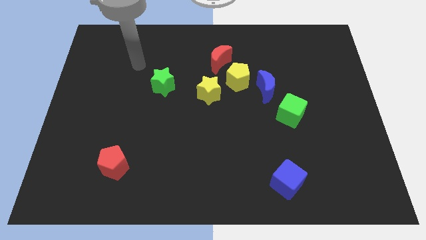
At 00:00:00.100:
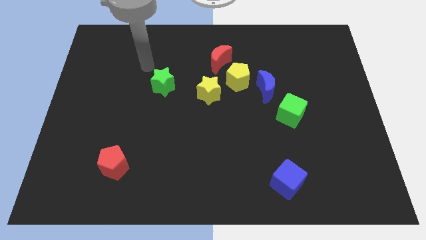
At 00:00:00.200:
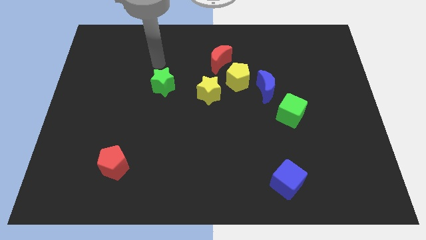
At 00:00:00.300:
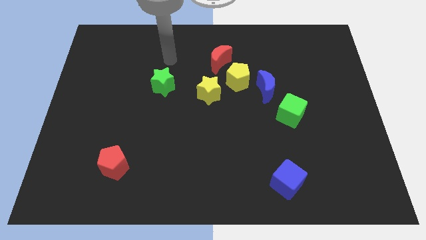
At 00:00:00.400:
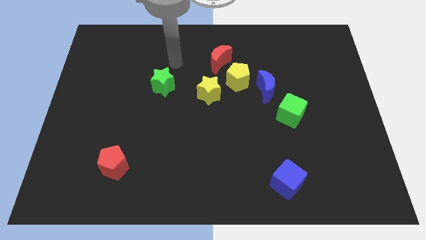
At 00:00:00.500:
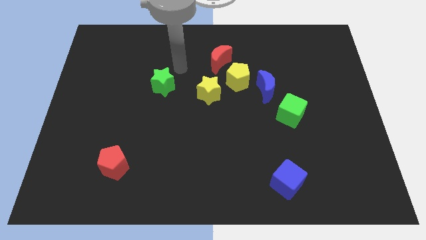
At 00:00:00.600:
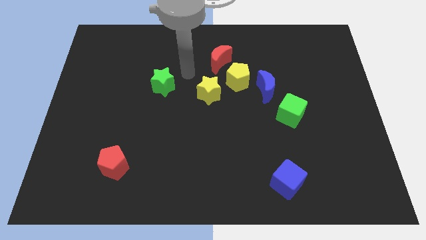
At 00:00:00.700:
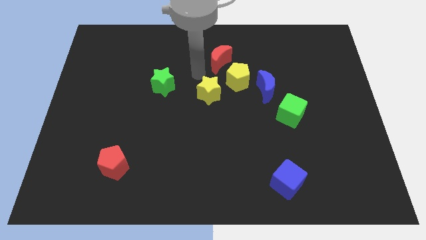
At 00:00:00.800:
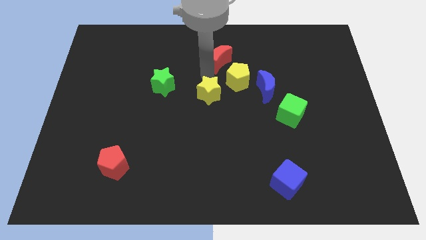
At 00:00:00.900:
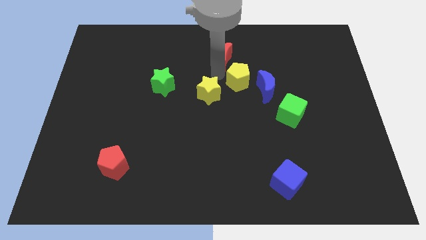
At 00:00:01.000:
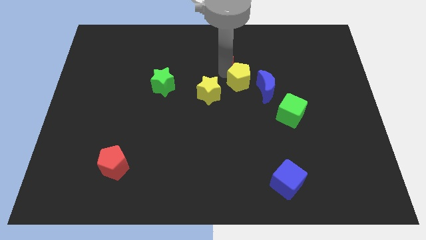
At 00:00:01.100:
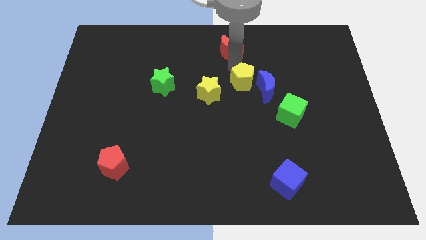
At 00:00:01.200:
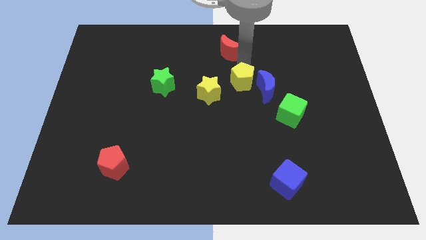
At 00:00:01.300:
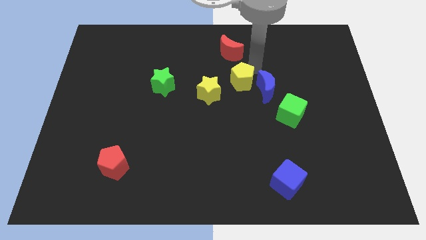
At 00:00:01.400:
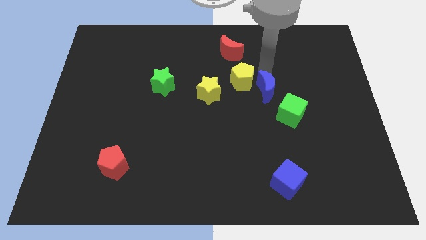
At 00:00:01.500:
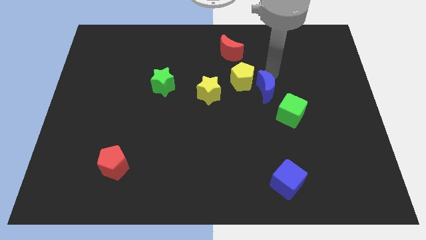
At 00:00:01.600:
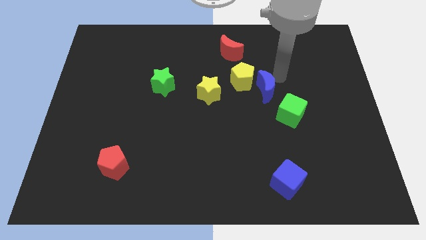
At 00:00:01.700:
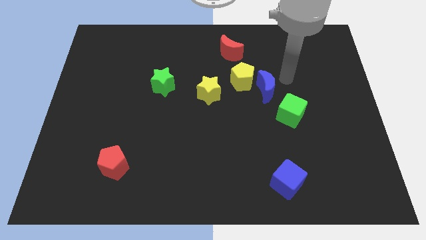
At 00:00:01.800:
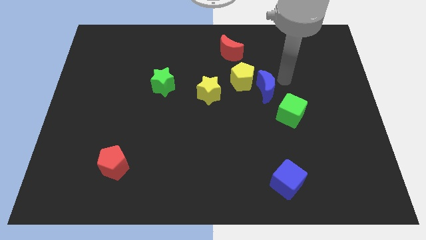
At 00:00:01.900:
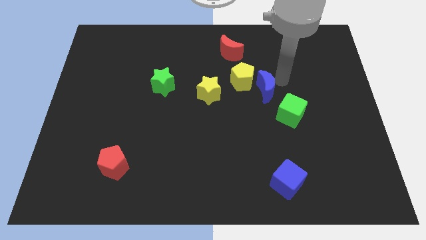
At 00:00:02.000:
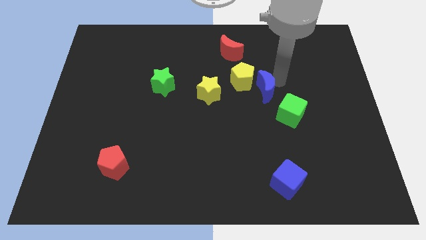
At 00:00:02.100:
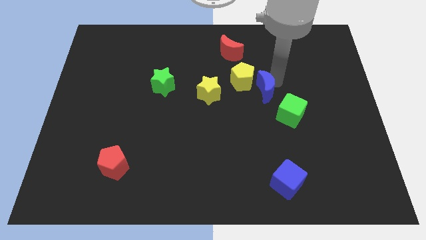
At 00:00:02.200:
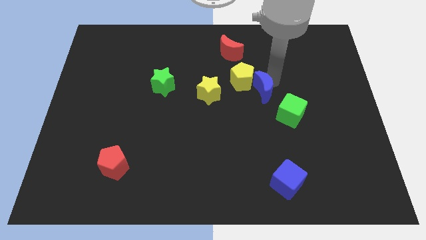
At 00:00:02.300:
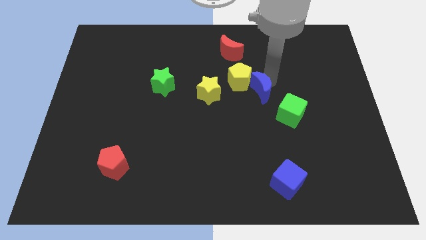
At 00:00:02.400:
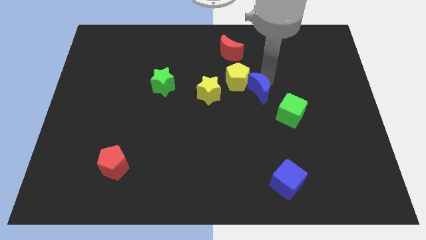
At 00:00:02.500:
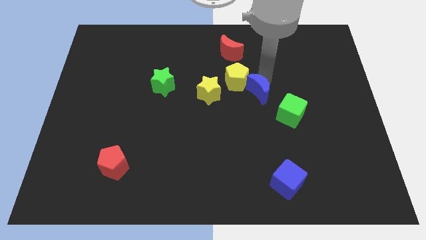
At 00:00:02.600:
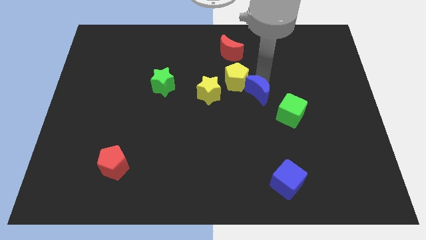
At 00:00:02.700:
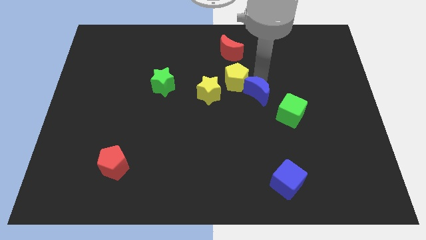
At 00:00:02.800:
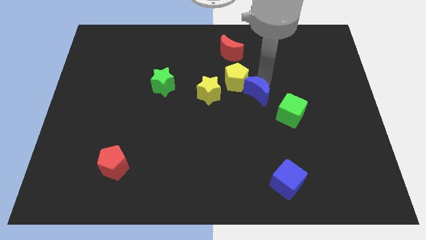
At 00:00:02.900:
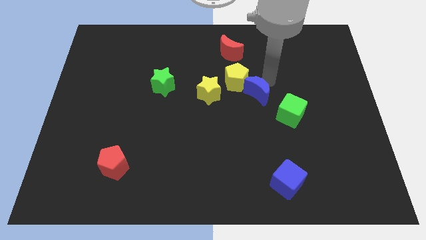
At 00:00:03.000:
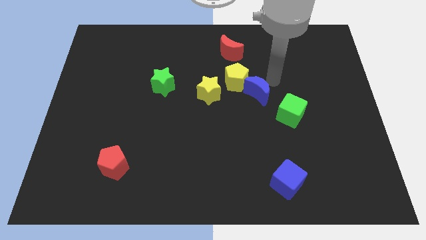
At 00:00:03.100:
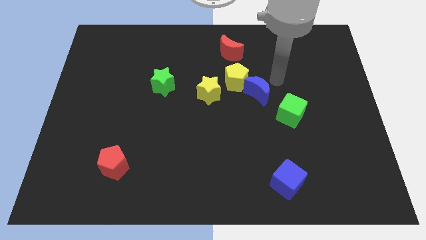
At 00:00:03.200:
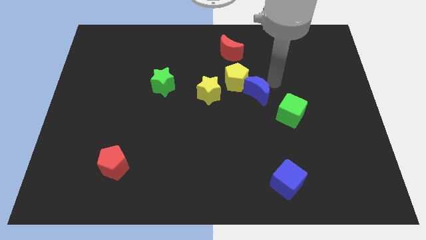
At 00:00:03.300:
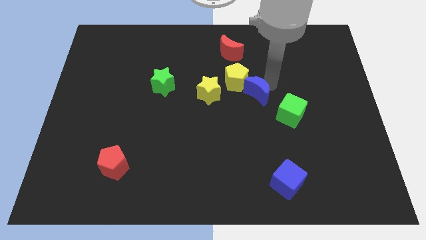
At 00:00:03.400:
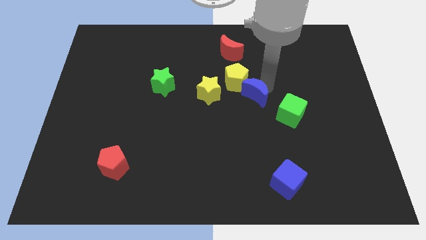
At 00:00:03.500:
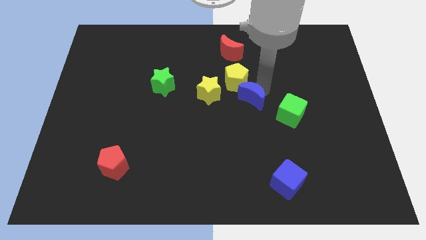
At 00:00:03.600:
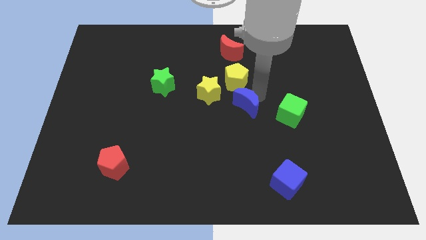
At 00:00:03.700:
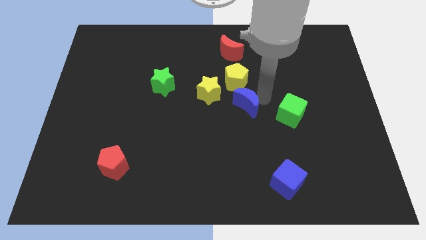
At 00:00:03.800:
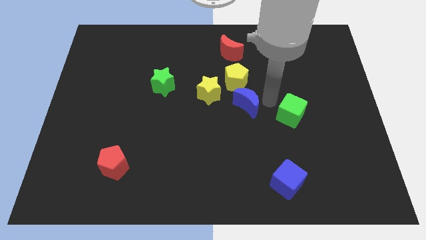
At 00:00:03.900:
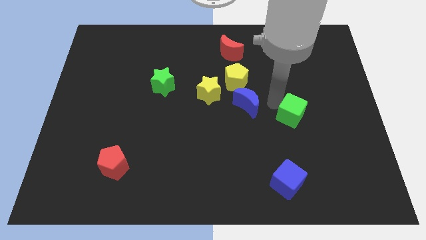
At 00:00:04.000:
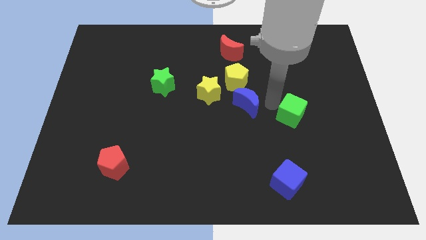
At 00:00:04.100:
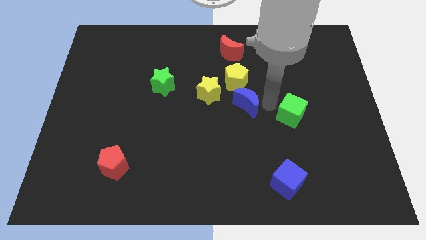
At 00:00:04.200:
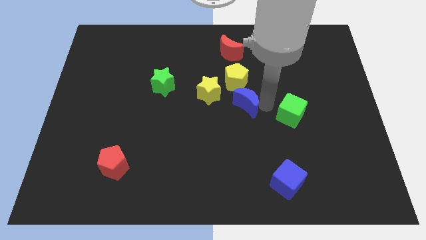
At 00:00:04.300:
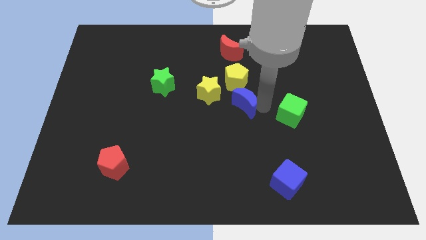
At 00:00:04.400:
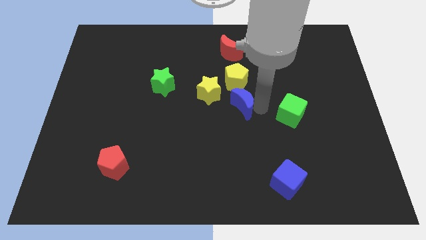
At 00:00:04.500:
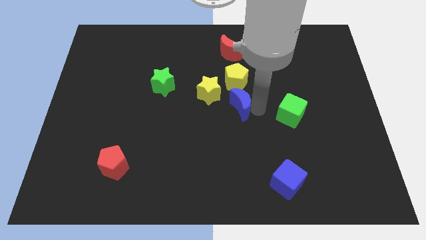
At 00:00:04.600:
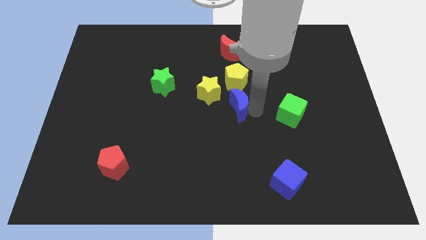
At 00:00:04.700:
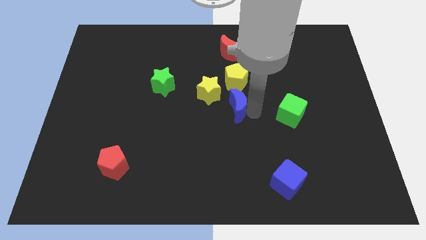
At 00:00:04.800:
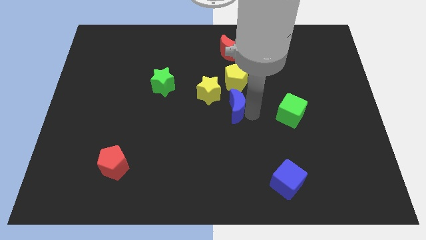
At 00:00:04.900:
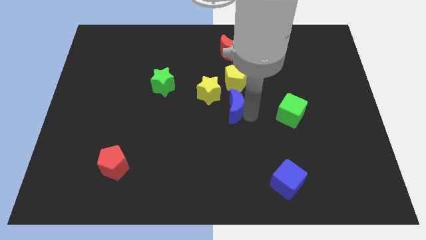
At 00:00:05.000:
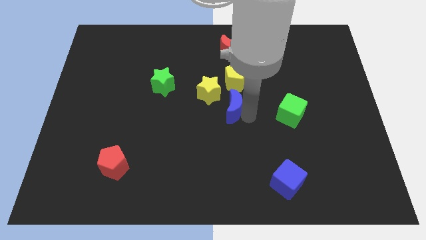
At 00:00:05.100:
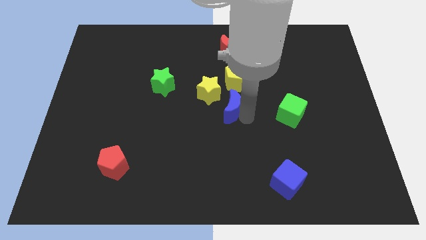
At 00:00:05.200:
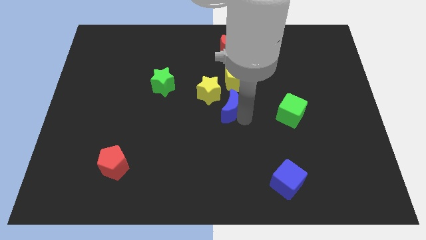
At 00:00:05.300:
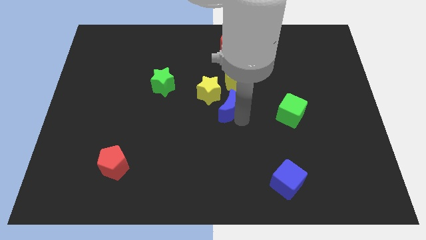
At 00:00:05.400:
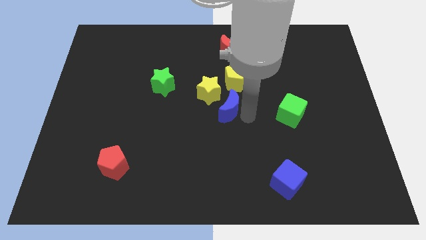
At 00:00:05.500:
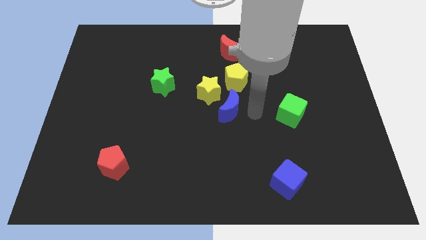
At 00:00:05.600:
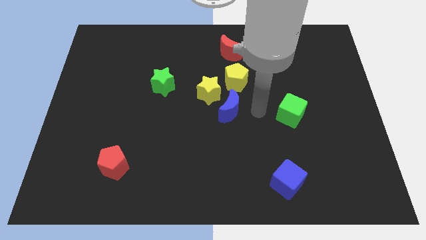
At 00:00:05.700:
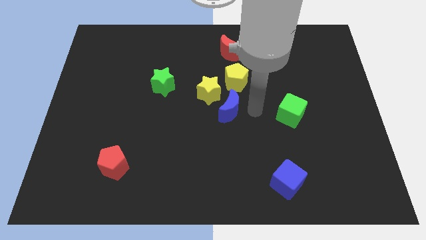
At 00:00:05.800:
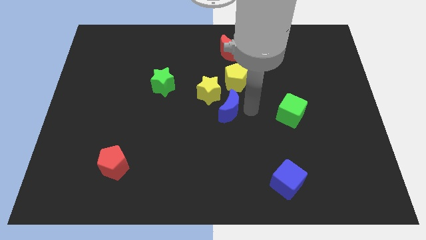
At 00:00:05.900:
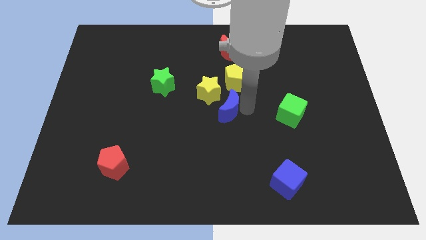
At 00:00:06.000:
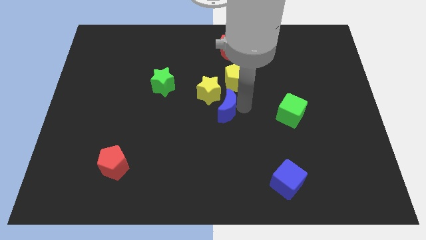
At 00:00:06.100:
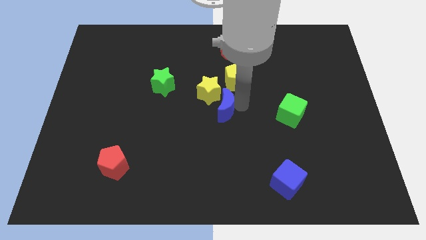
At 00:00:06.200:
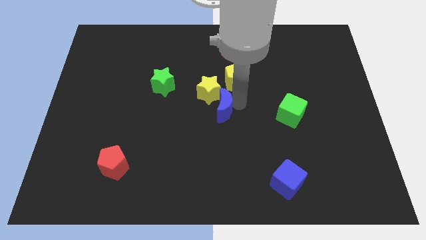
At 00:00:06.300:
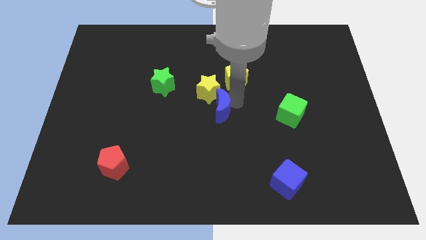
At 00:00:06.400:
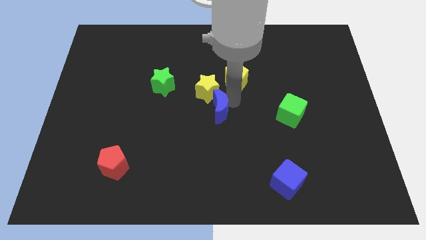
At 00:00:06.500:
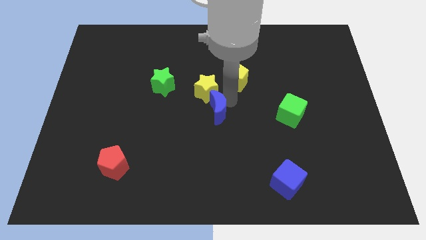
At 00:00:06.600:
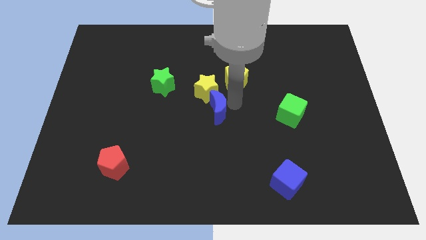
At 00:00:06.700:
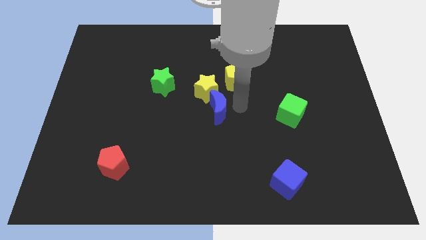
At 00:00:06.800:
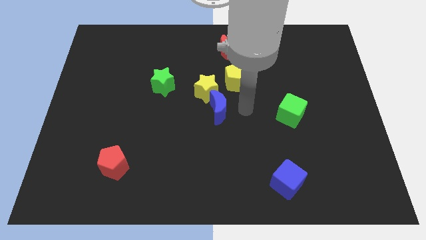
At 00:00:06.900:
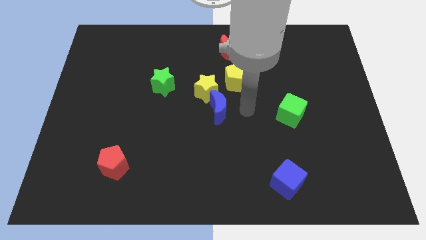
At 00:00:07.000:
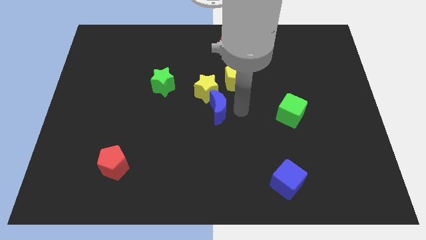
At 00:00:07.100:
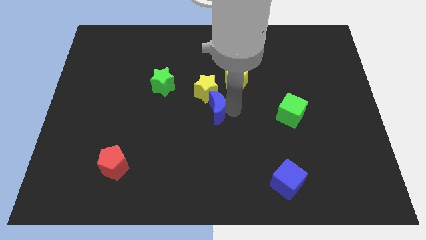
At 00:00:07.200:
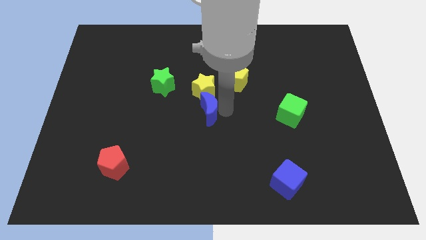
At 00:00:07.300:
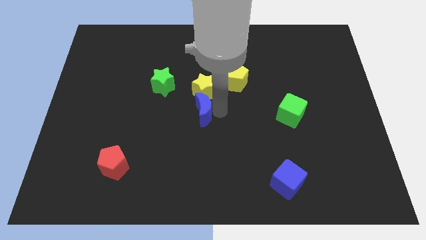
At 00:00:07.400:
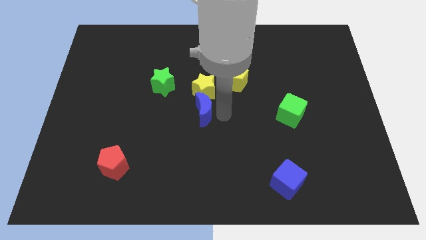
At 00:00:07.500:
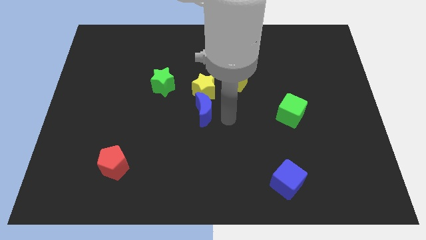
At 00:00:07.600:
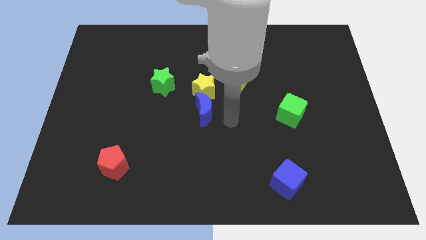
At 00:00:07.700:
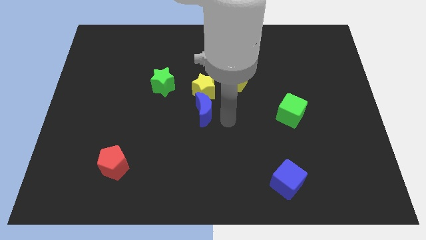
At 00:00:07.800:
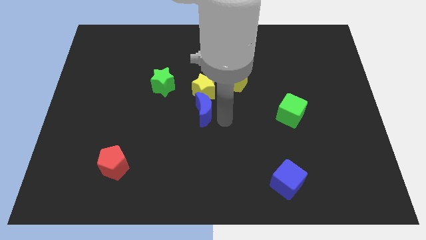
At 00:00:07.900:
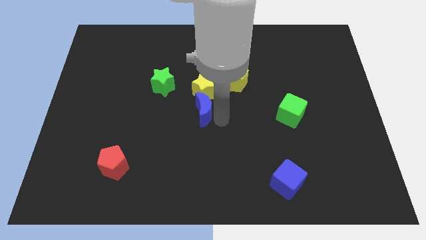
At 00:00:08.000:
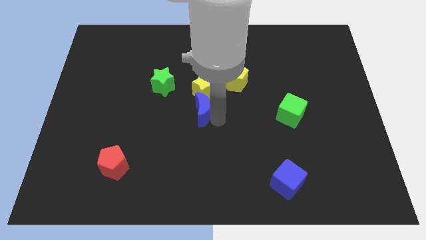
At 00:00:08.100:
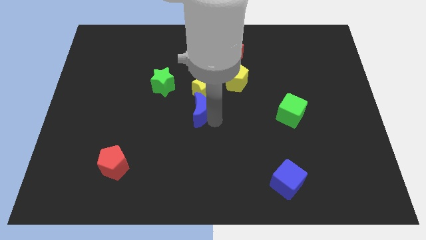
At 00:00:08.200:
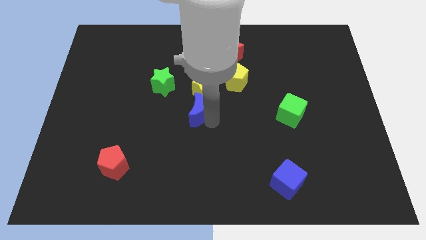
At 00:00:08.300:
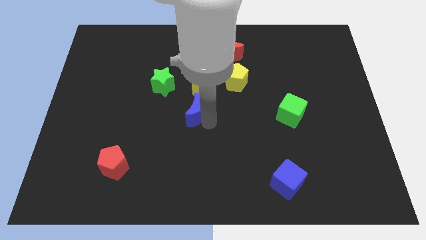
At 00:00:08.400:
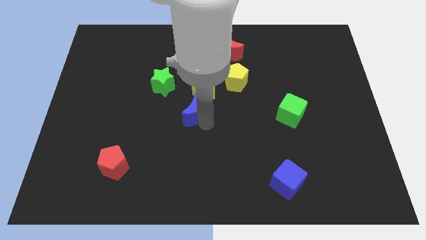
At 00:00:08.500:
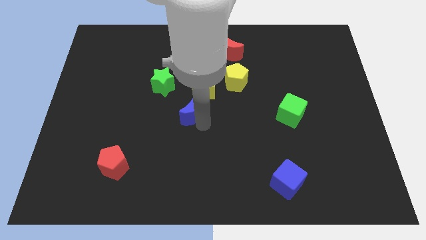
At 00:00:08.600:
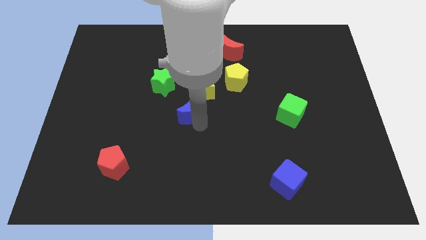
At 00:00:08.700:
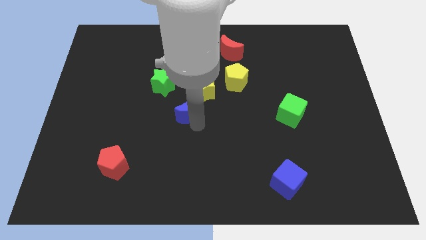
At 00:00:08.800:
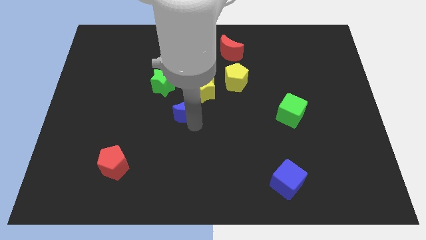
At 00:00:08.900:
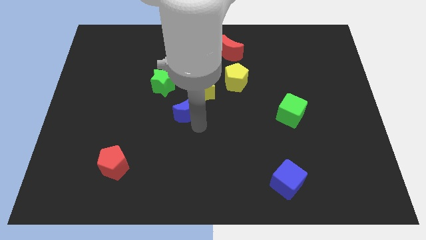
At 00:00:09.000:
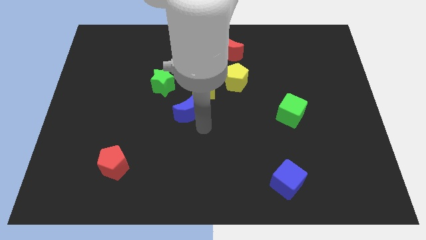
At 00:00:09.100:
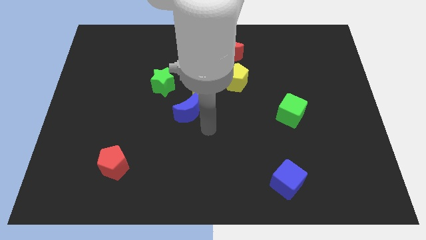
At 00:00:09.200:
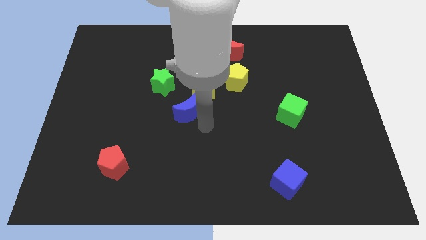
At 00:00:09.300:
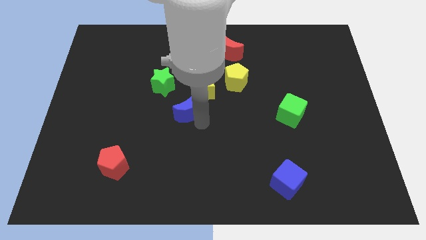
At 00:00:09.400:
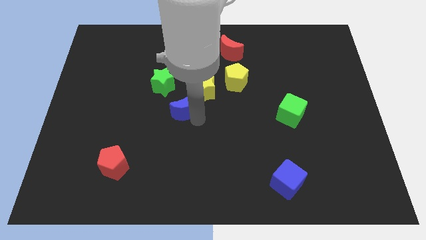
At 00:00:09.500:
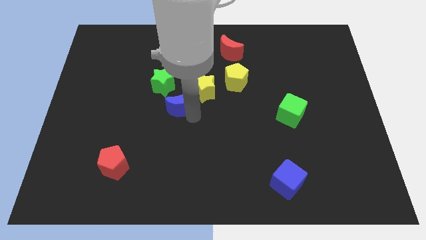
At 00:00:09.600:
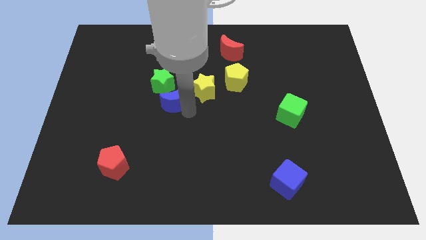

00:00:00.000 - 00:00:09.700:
slide the blue moon to the left
